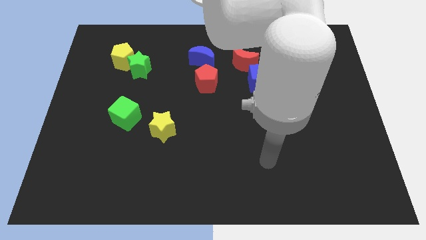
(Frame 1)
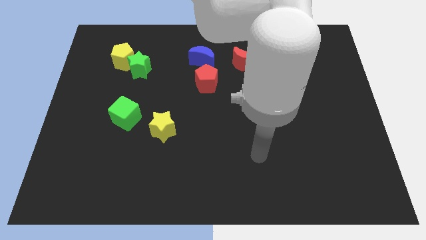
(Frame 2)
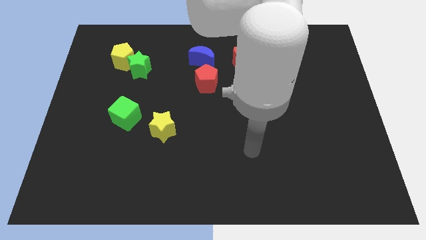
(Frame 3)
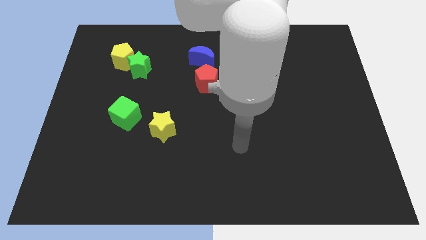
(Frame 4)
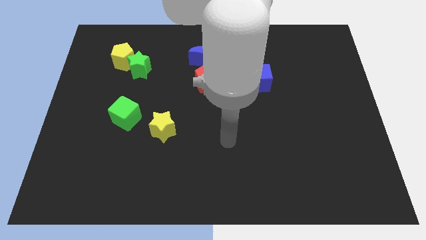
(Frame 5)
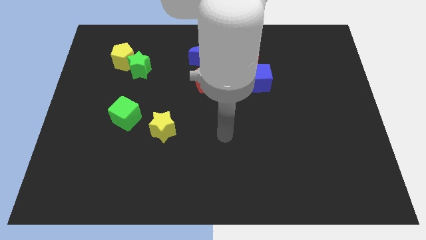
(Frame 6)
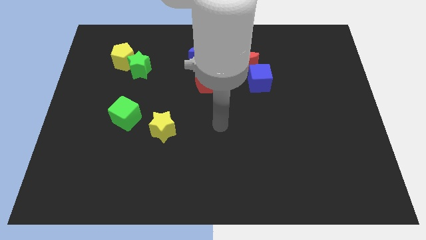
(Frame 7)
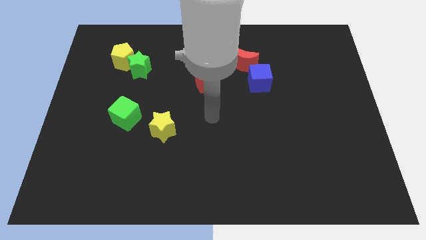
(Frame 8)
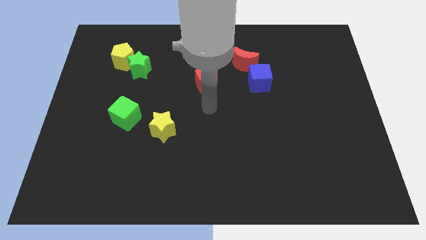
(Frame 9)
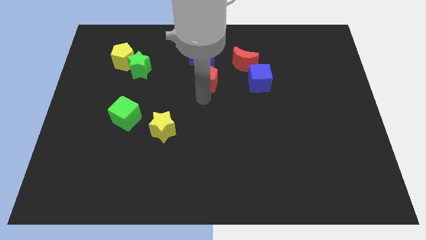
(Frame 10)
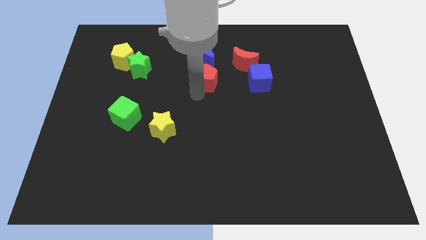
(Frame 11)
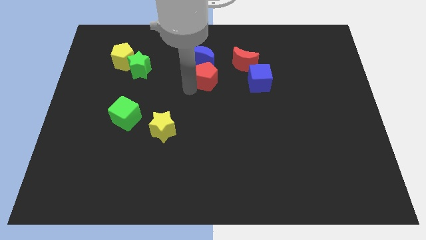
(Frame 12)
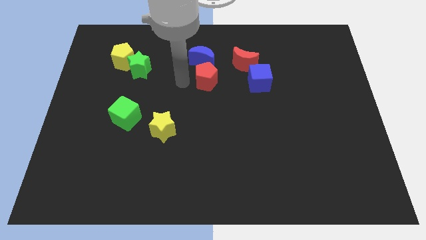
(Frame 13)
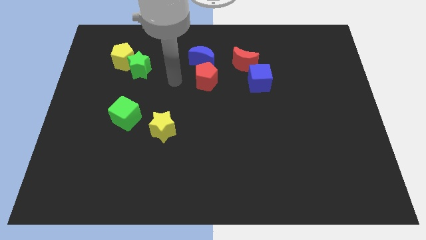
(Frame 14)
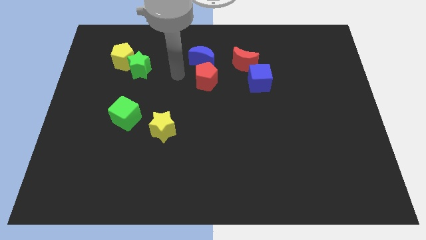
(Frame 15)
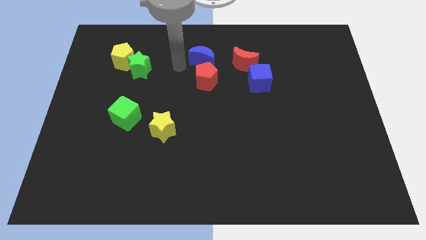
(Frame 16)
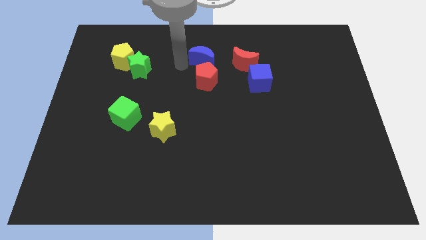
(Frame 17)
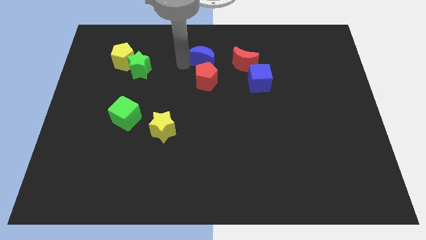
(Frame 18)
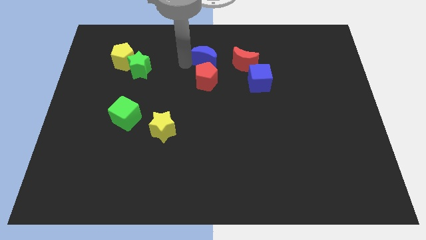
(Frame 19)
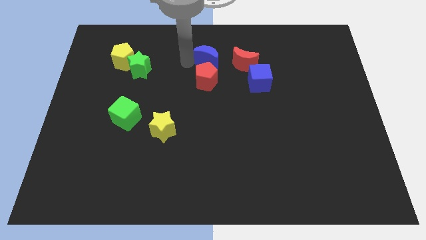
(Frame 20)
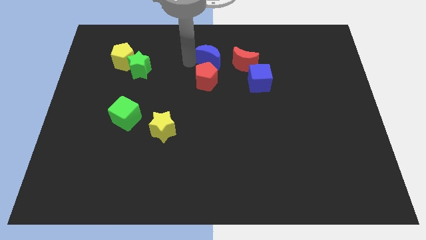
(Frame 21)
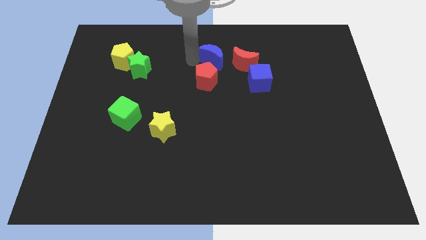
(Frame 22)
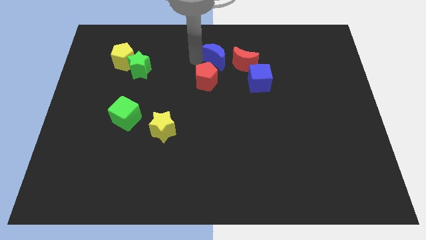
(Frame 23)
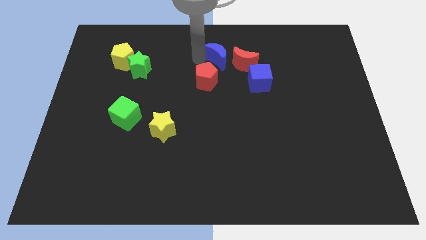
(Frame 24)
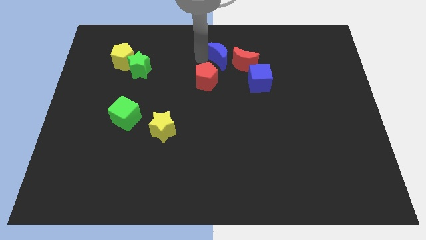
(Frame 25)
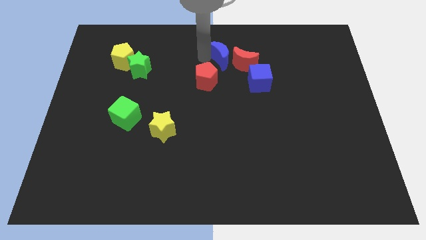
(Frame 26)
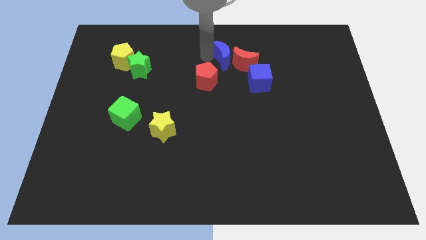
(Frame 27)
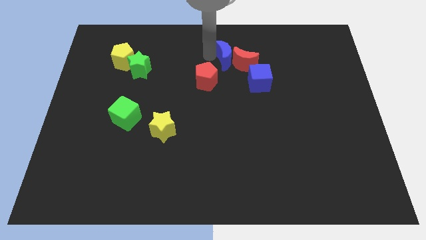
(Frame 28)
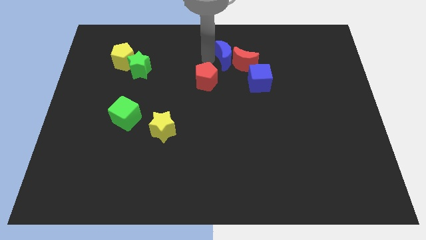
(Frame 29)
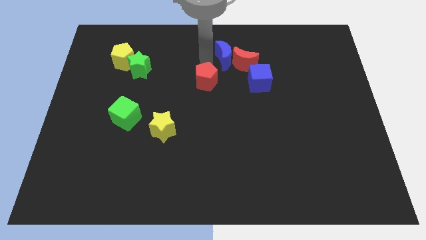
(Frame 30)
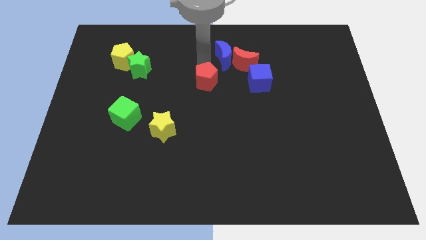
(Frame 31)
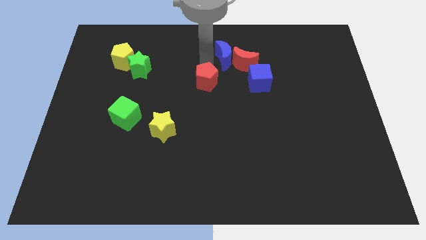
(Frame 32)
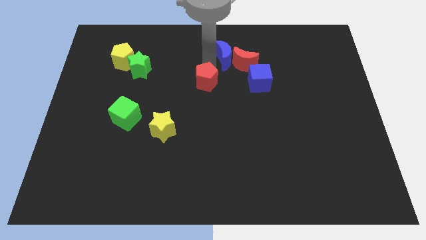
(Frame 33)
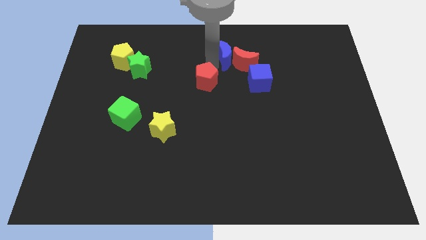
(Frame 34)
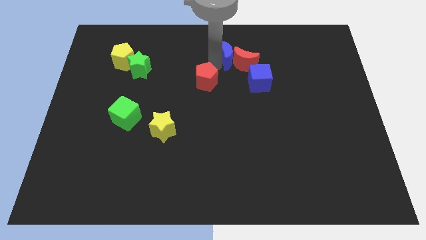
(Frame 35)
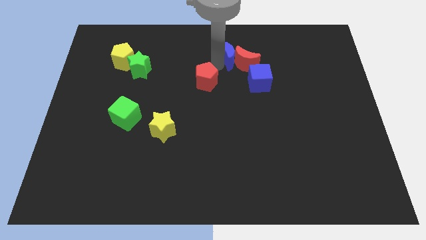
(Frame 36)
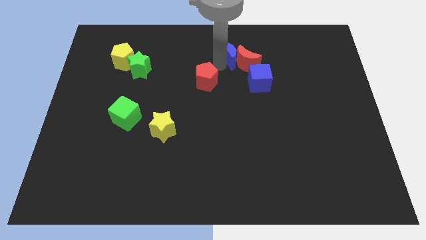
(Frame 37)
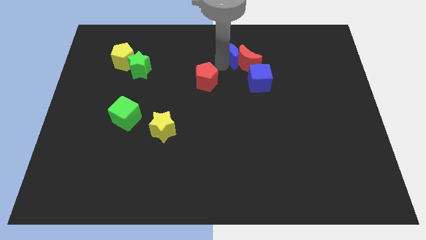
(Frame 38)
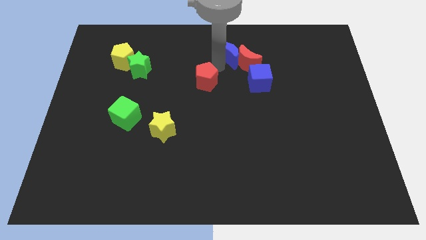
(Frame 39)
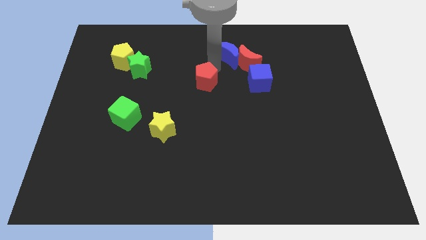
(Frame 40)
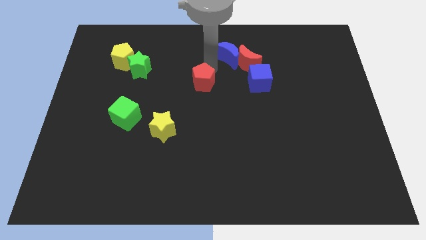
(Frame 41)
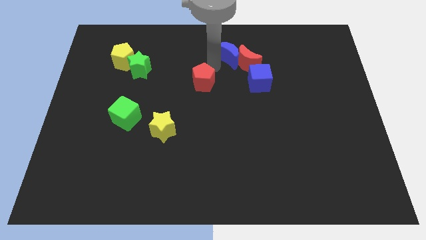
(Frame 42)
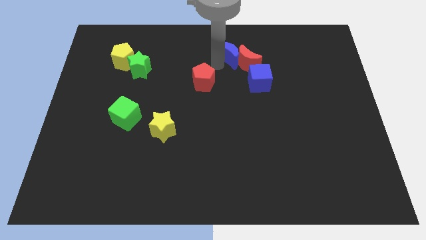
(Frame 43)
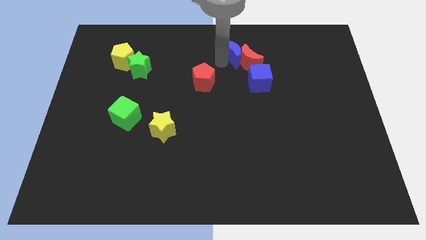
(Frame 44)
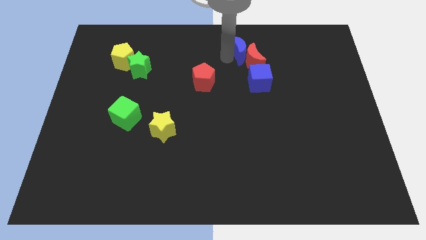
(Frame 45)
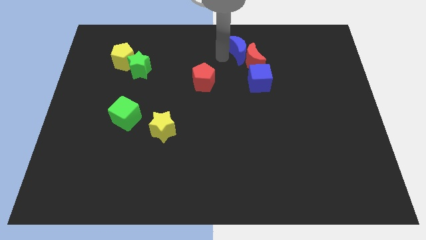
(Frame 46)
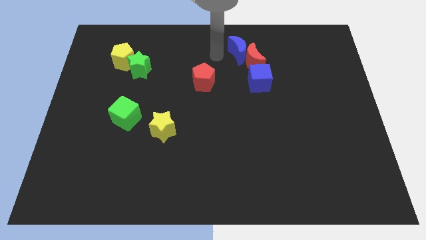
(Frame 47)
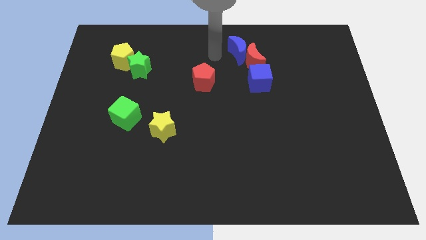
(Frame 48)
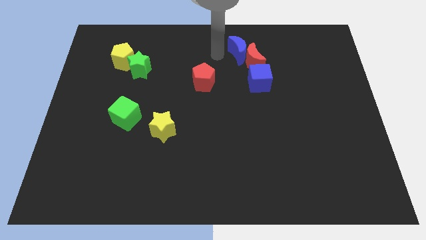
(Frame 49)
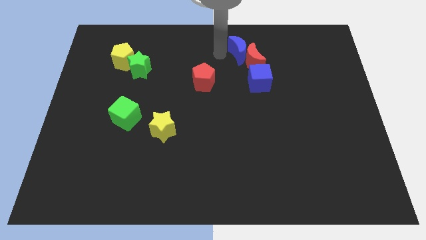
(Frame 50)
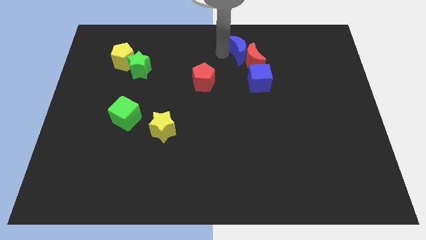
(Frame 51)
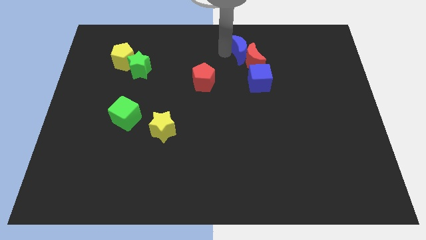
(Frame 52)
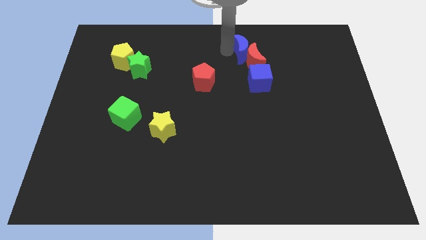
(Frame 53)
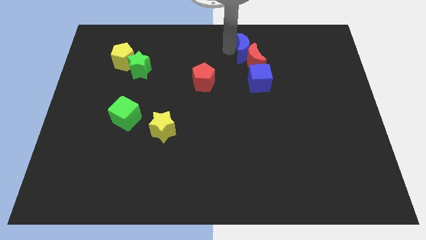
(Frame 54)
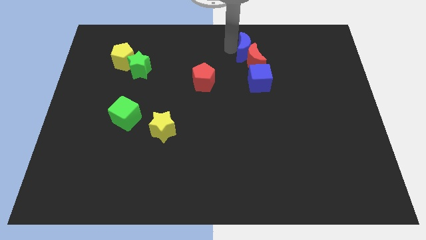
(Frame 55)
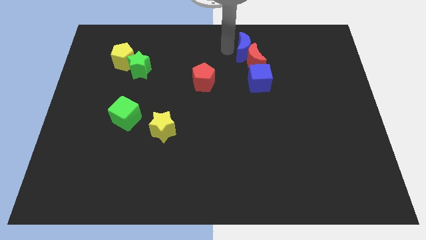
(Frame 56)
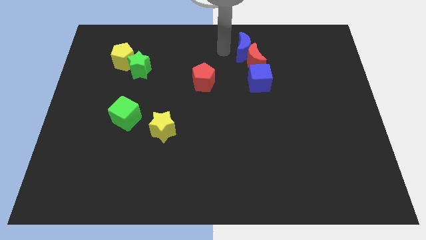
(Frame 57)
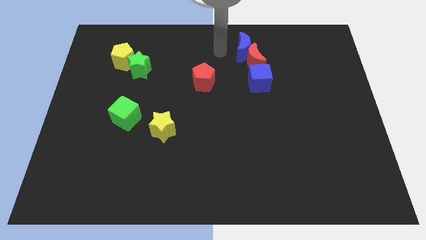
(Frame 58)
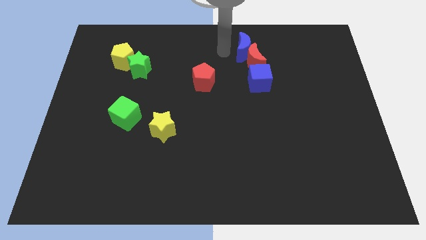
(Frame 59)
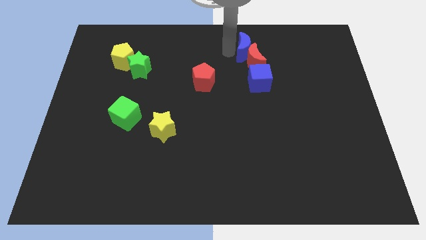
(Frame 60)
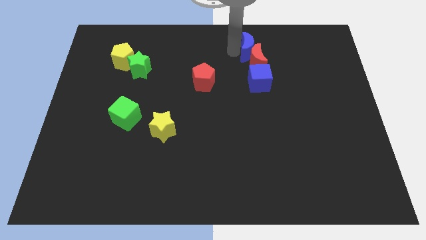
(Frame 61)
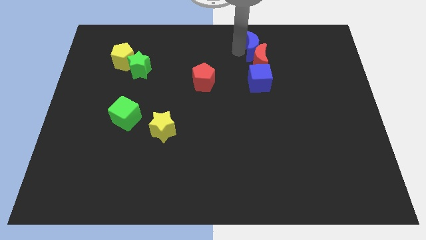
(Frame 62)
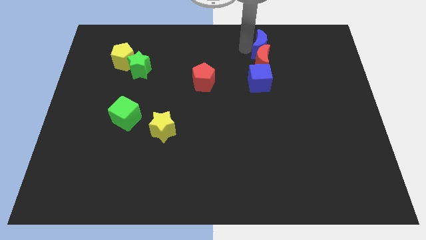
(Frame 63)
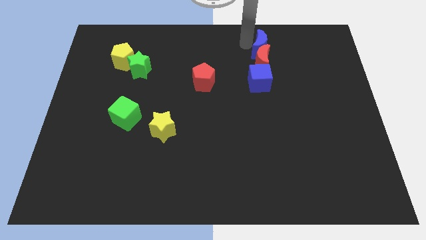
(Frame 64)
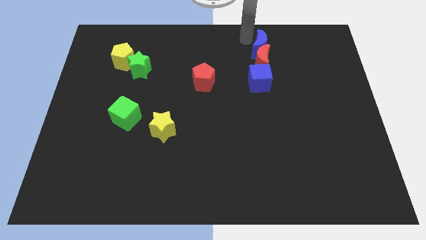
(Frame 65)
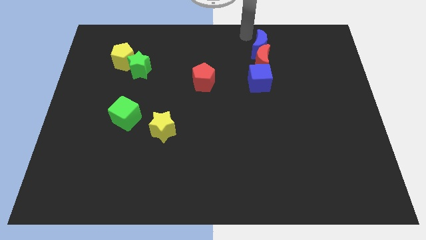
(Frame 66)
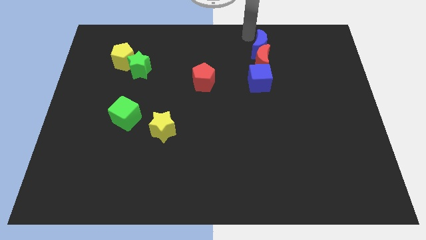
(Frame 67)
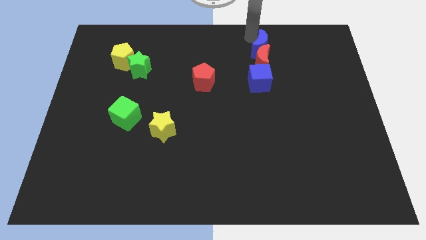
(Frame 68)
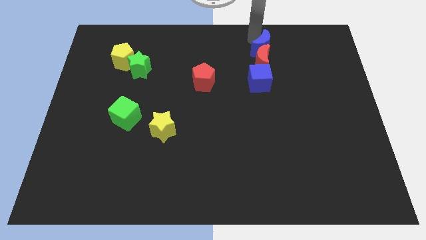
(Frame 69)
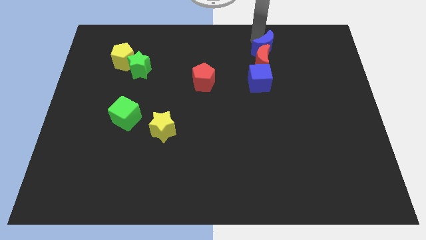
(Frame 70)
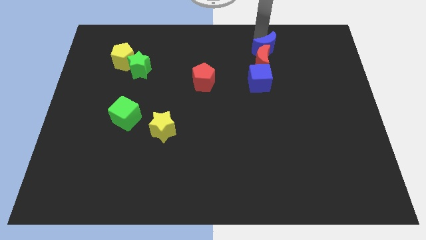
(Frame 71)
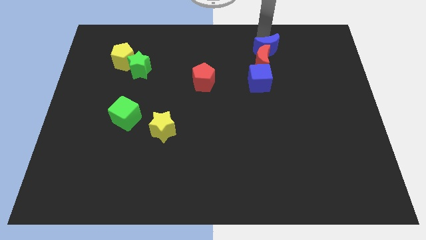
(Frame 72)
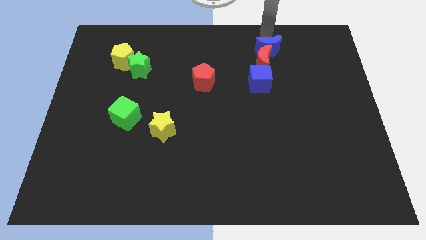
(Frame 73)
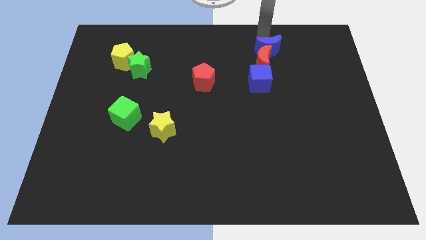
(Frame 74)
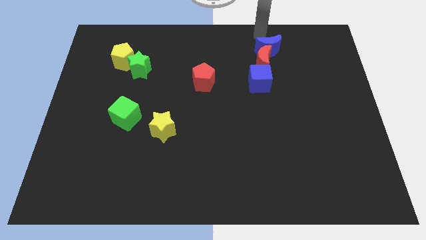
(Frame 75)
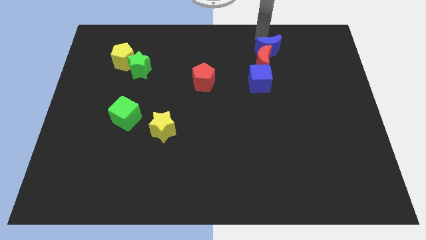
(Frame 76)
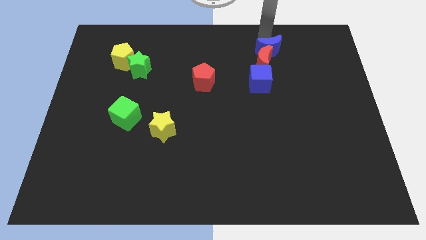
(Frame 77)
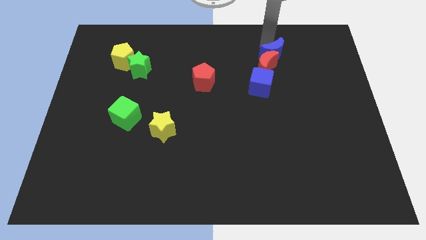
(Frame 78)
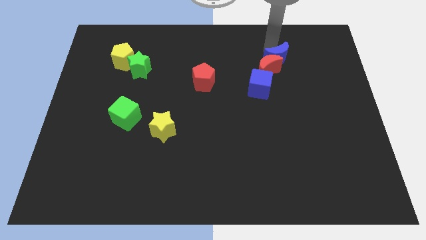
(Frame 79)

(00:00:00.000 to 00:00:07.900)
slide the blue moon diagonally up and to the right of the blue cube
